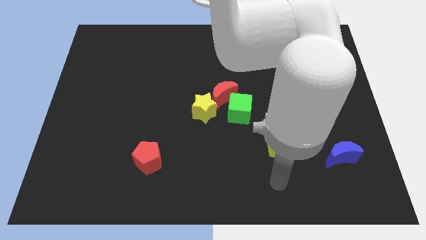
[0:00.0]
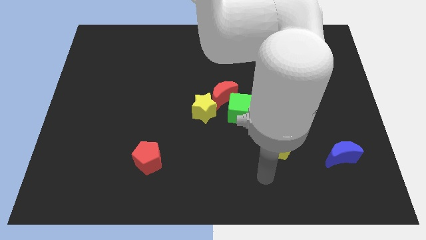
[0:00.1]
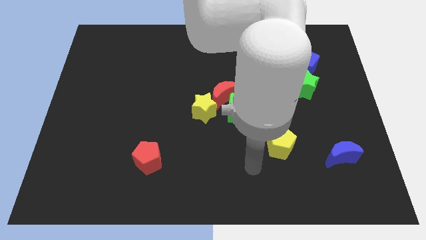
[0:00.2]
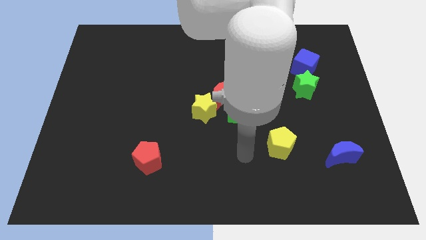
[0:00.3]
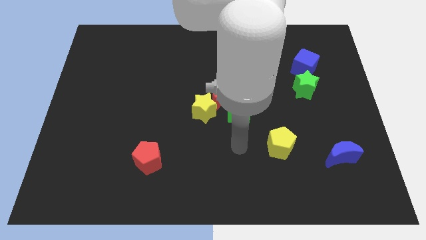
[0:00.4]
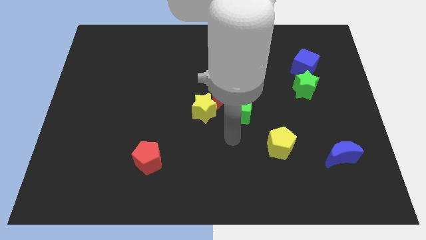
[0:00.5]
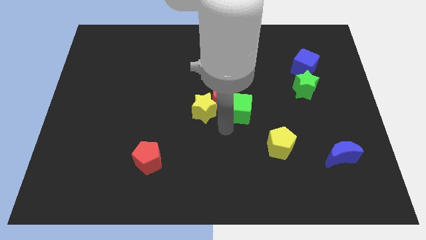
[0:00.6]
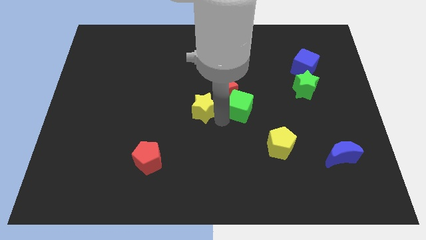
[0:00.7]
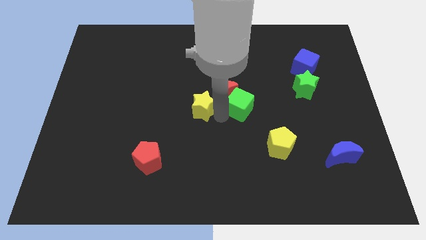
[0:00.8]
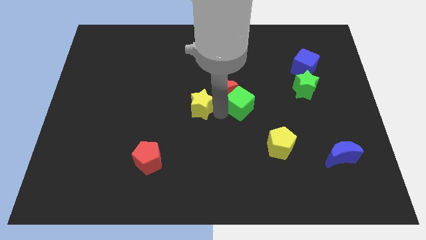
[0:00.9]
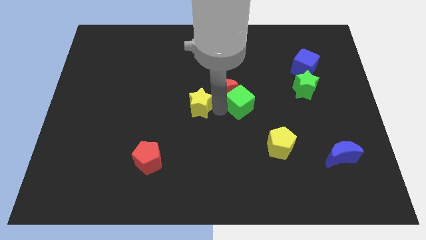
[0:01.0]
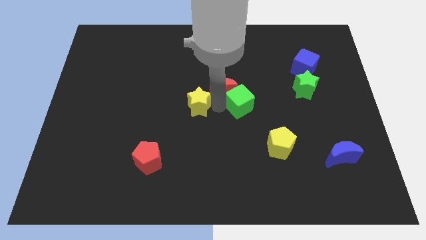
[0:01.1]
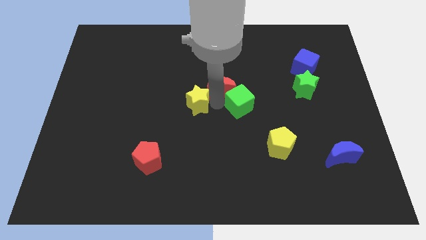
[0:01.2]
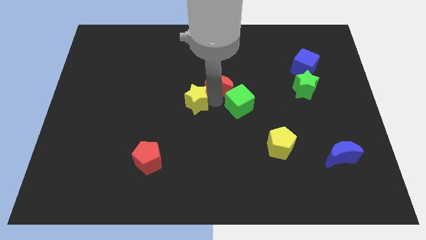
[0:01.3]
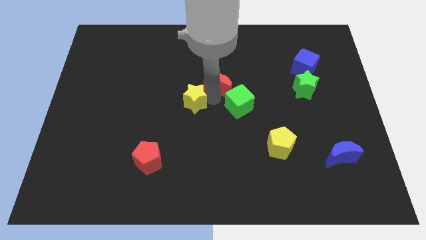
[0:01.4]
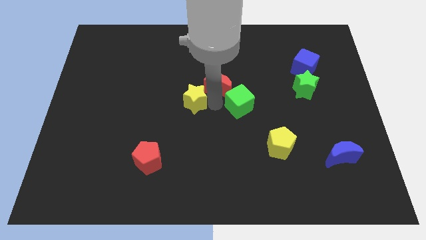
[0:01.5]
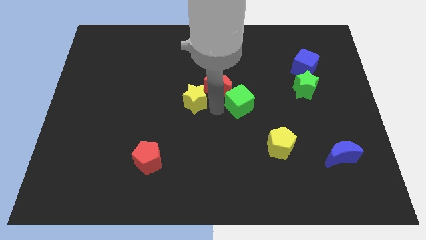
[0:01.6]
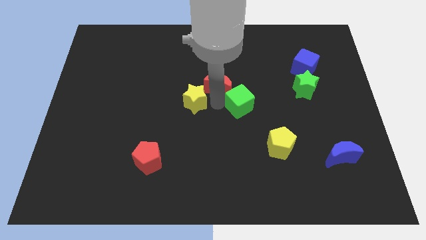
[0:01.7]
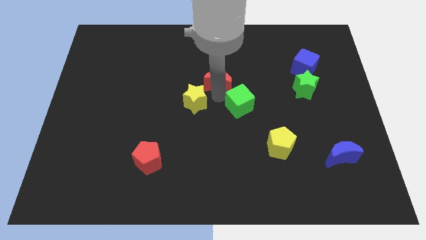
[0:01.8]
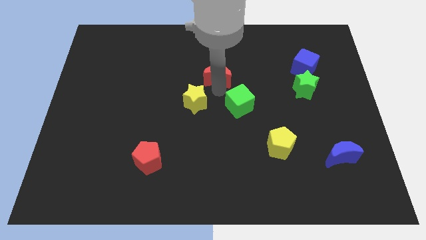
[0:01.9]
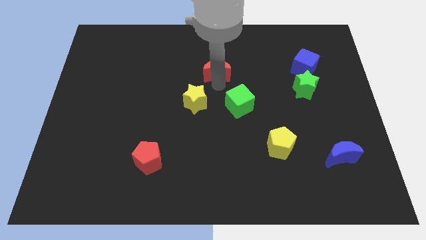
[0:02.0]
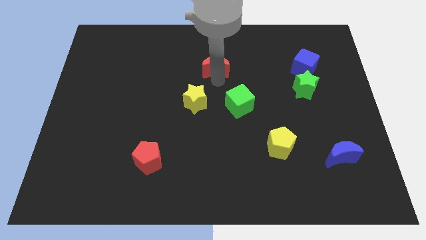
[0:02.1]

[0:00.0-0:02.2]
pull the red moon apart from the green cube and yellow star

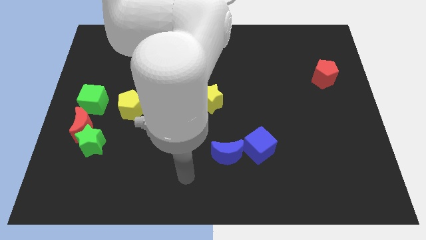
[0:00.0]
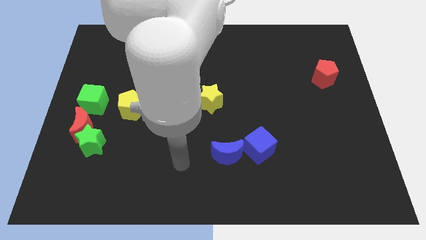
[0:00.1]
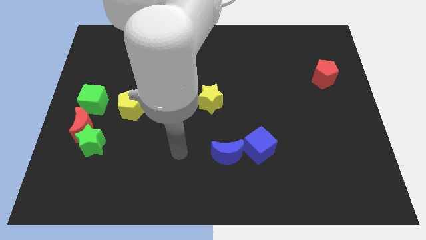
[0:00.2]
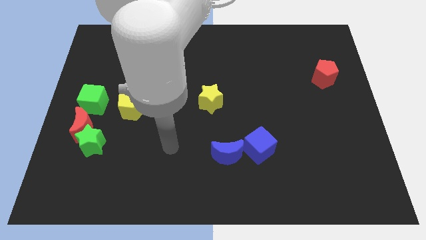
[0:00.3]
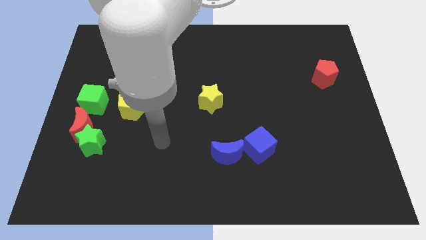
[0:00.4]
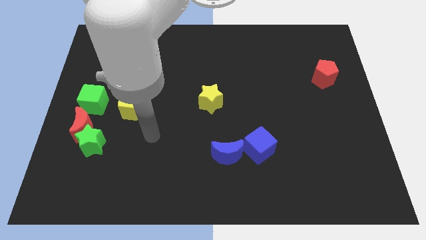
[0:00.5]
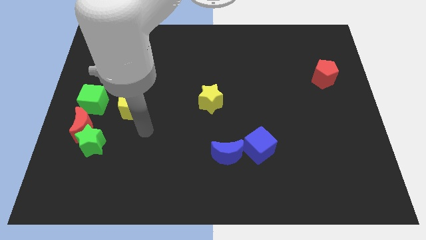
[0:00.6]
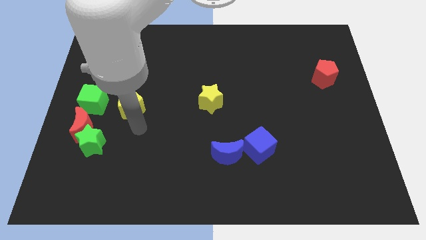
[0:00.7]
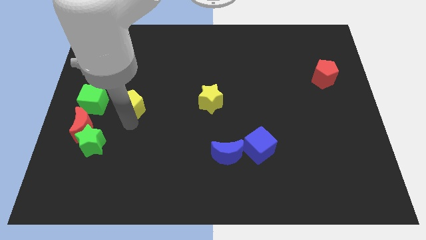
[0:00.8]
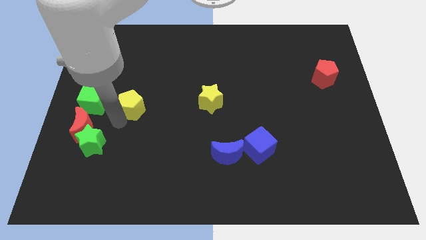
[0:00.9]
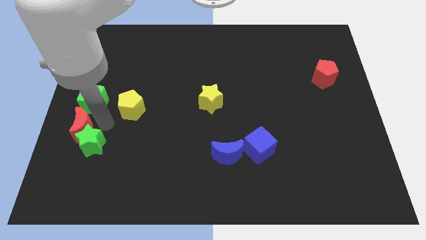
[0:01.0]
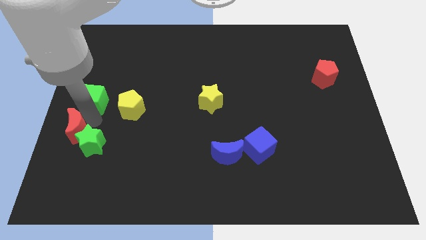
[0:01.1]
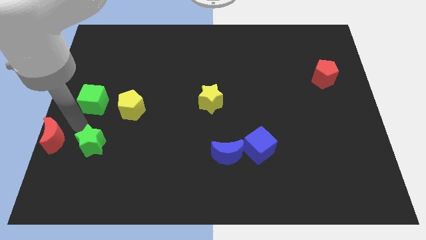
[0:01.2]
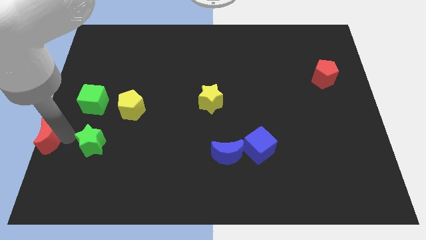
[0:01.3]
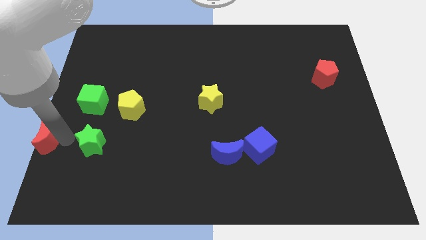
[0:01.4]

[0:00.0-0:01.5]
separate the green star from the red moon

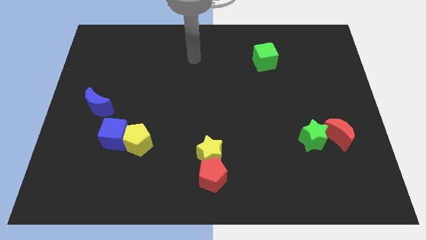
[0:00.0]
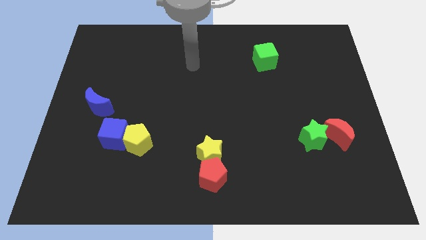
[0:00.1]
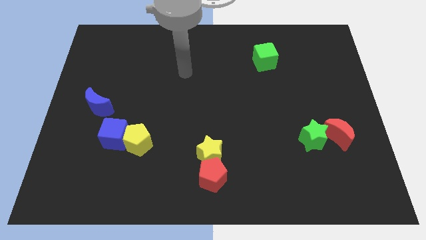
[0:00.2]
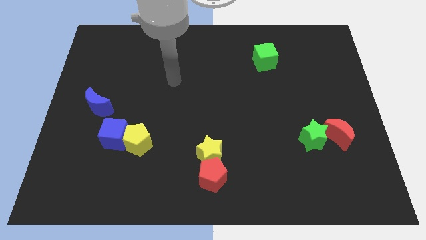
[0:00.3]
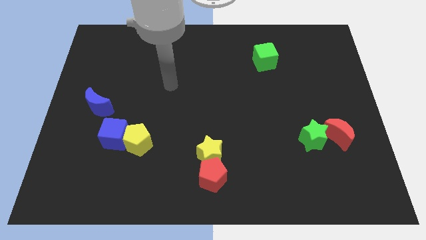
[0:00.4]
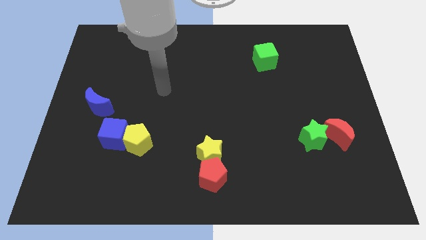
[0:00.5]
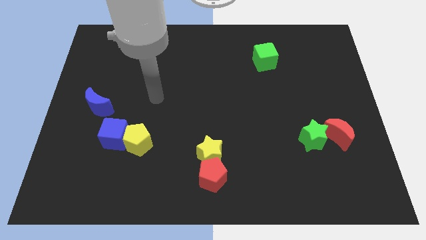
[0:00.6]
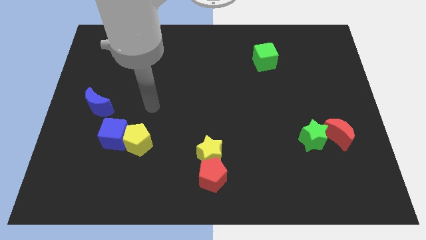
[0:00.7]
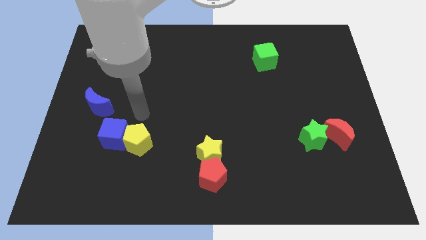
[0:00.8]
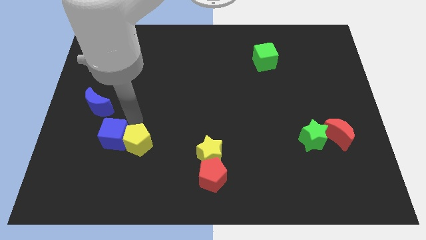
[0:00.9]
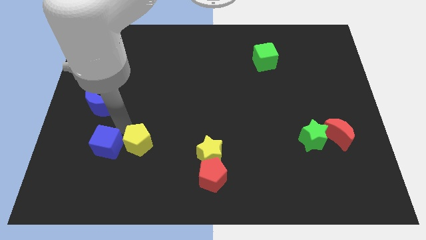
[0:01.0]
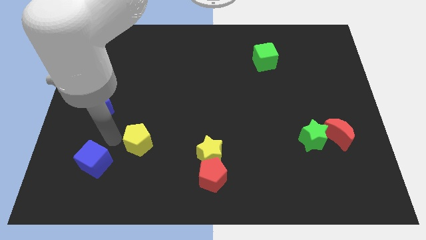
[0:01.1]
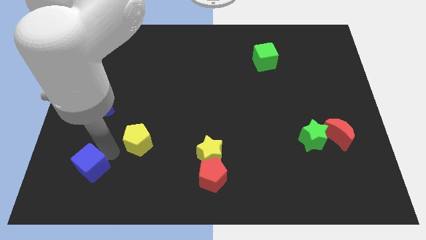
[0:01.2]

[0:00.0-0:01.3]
move the yellow pentagon away from the blue cube

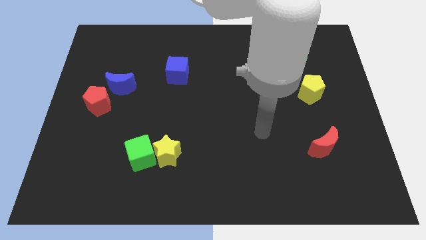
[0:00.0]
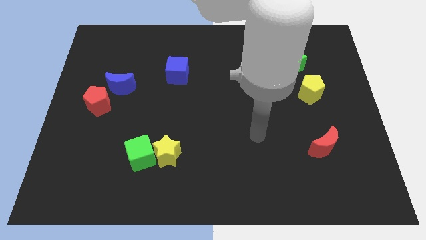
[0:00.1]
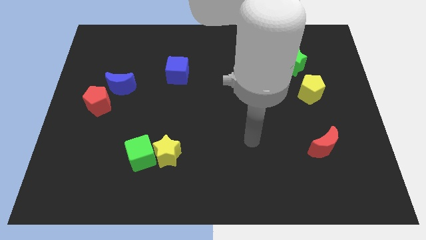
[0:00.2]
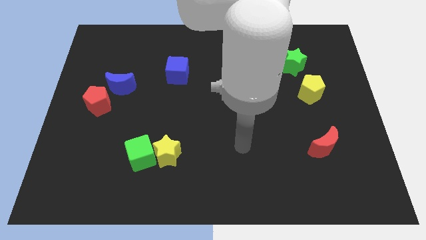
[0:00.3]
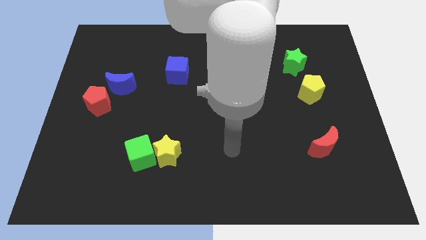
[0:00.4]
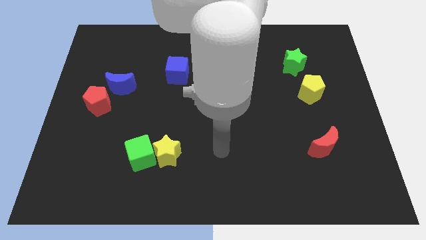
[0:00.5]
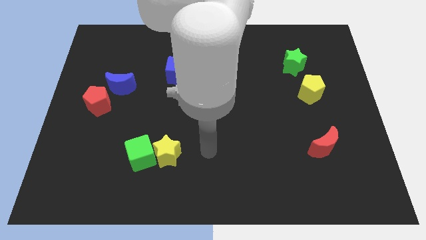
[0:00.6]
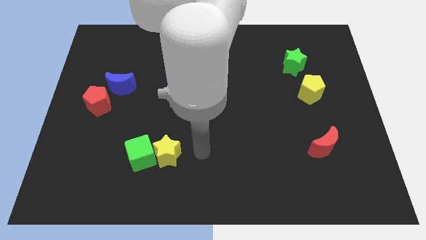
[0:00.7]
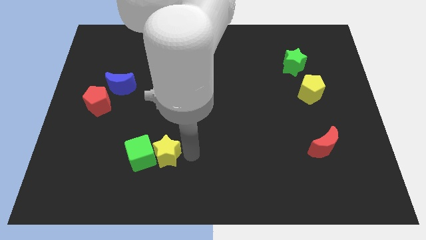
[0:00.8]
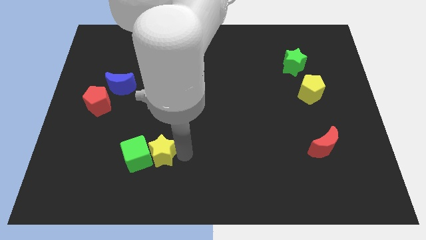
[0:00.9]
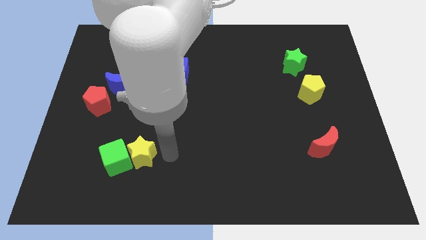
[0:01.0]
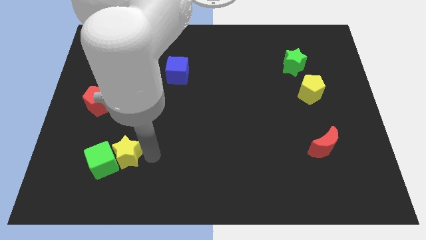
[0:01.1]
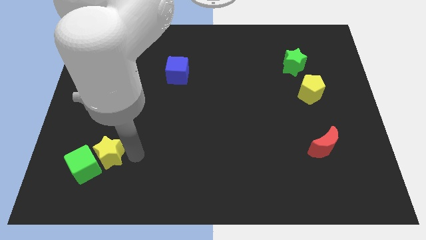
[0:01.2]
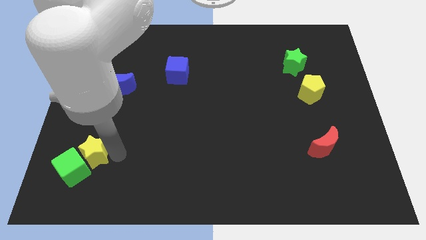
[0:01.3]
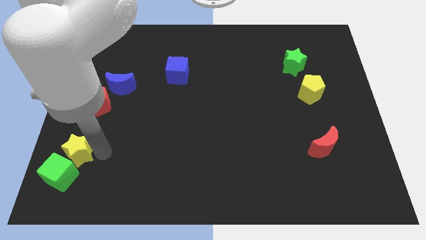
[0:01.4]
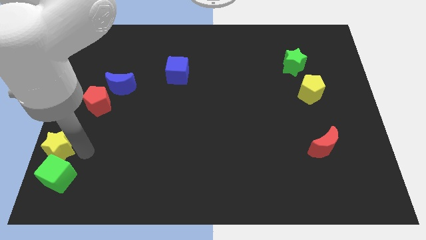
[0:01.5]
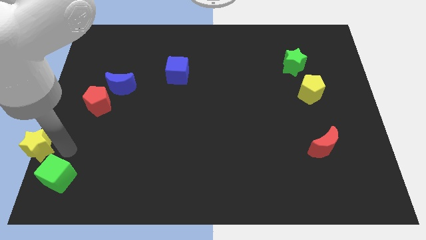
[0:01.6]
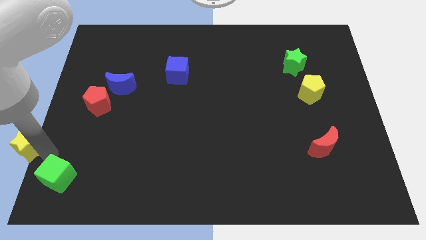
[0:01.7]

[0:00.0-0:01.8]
pull the green cube apart from the yellow star

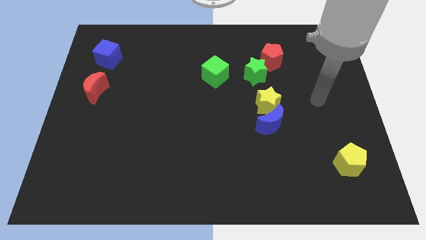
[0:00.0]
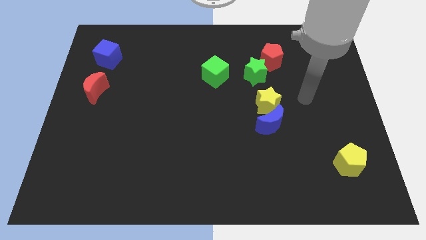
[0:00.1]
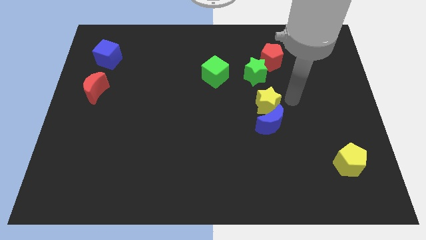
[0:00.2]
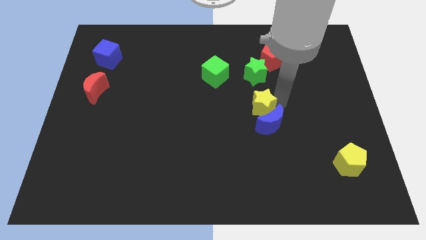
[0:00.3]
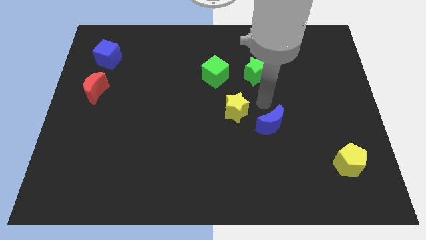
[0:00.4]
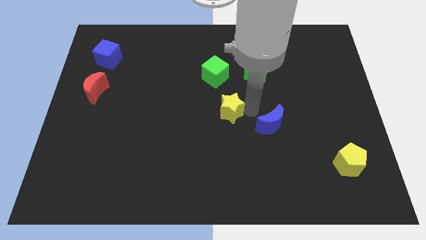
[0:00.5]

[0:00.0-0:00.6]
separate the blue moon from the yellow star

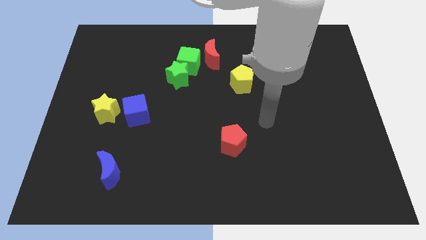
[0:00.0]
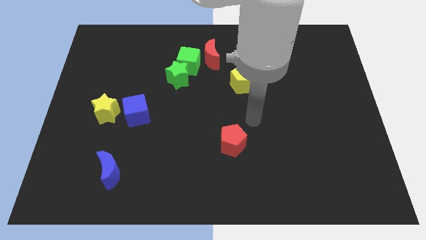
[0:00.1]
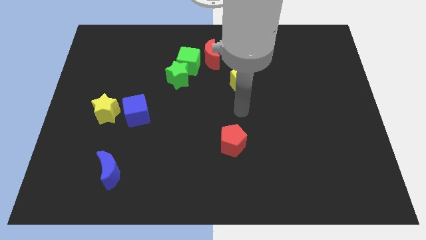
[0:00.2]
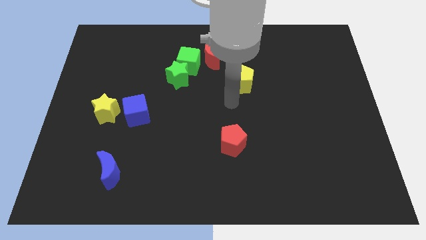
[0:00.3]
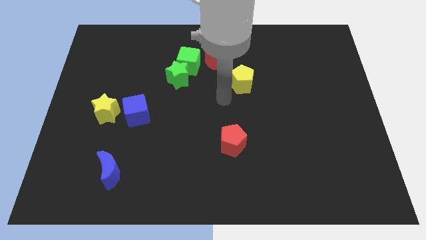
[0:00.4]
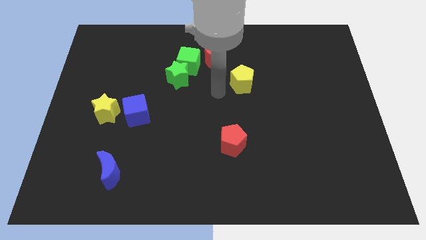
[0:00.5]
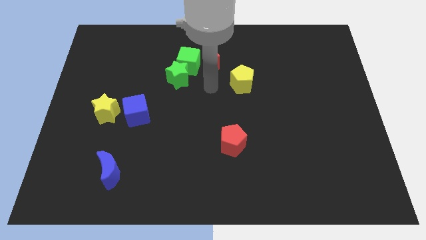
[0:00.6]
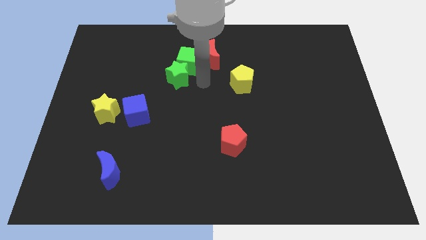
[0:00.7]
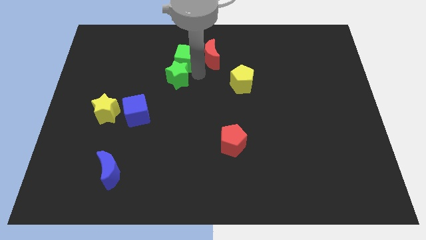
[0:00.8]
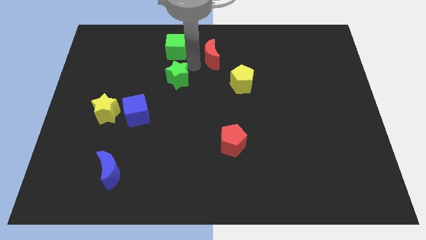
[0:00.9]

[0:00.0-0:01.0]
pull the green star apart from the green cube

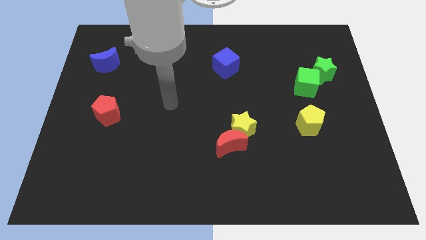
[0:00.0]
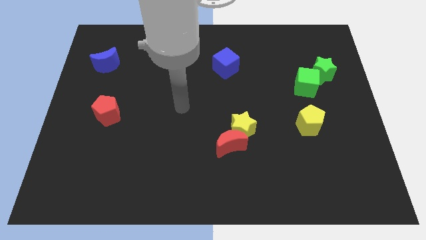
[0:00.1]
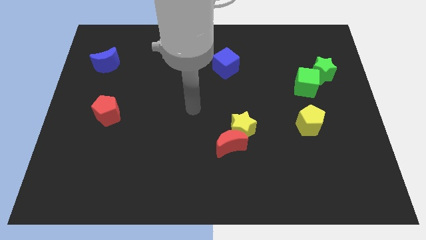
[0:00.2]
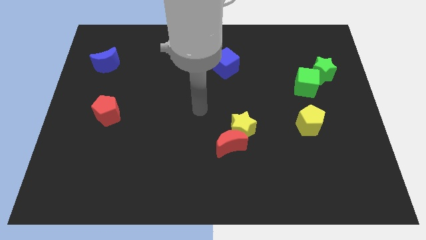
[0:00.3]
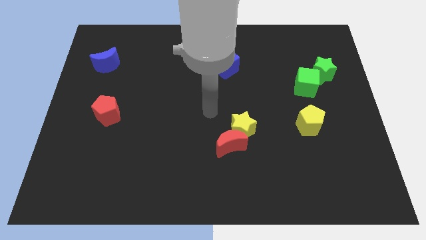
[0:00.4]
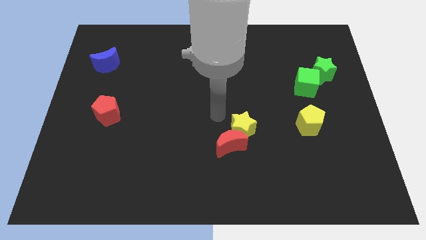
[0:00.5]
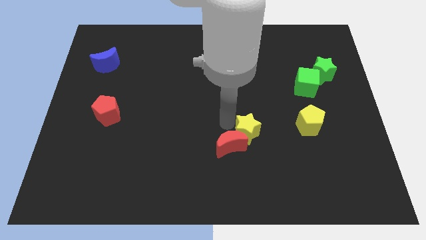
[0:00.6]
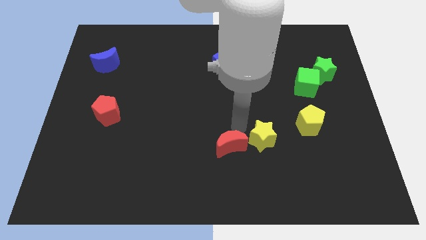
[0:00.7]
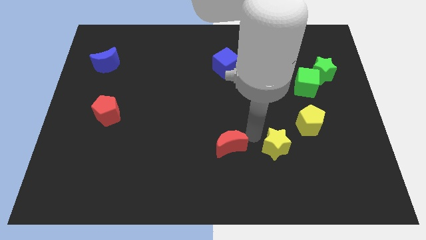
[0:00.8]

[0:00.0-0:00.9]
move the red moon away from the yellow star
